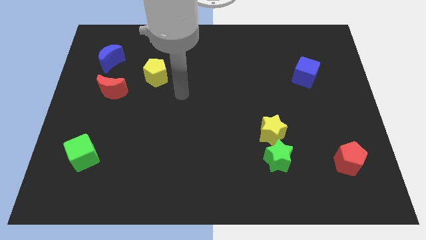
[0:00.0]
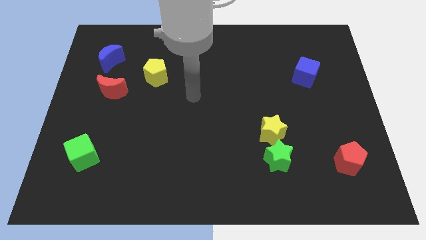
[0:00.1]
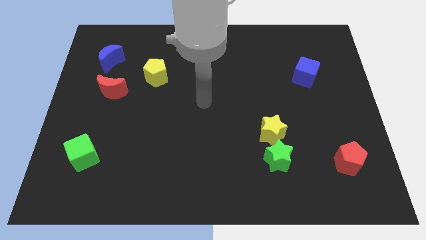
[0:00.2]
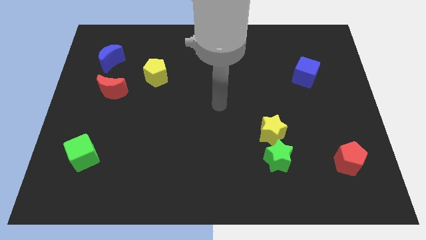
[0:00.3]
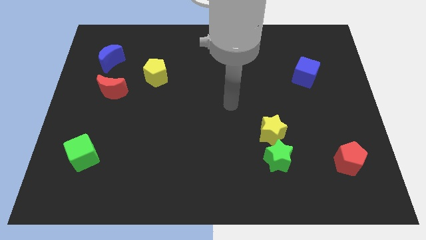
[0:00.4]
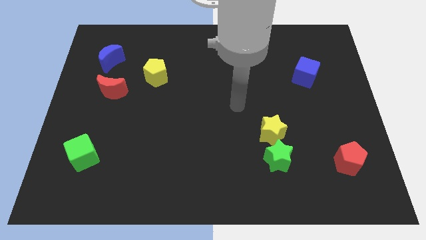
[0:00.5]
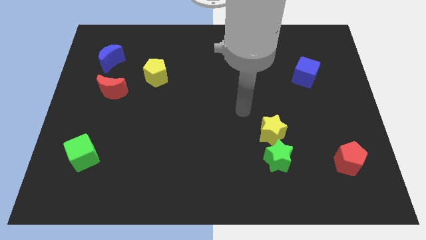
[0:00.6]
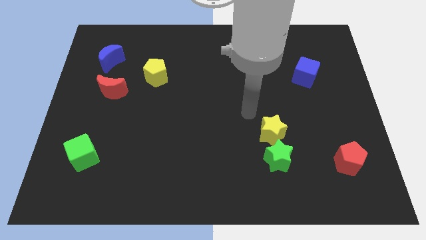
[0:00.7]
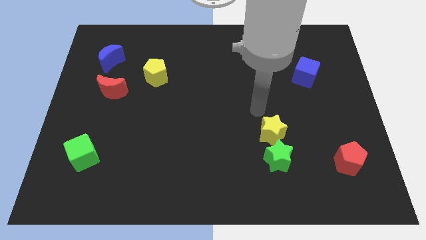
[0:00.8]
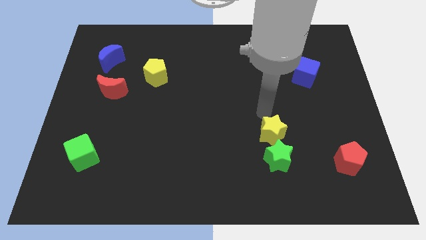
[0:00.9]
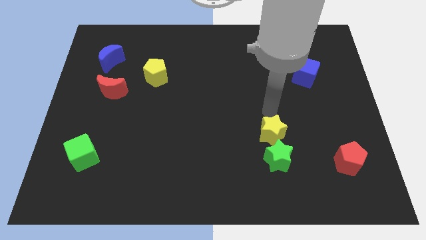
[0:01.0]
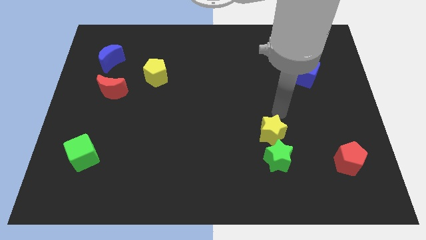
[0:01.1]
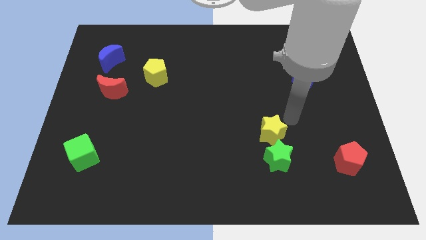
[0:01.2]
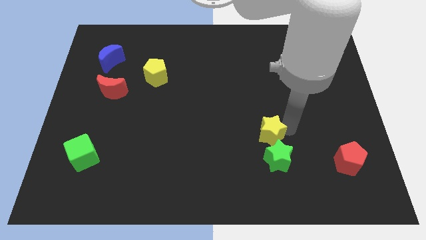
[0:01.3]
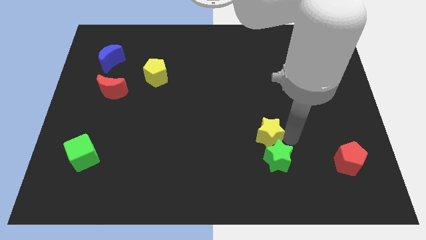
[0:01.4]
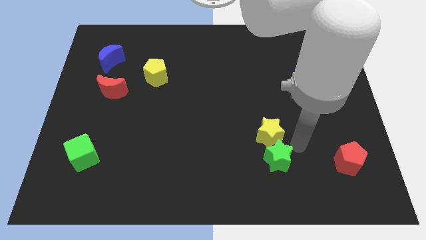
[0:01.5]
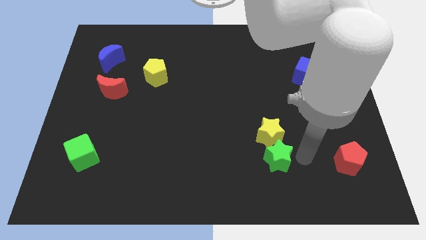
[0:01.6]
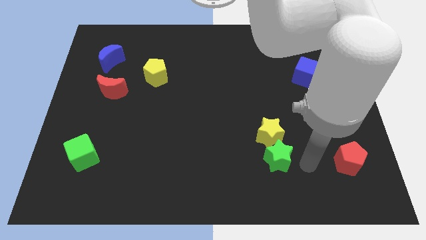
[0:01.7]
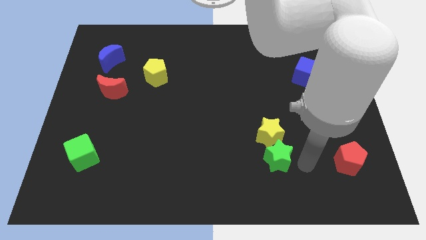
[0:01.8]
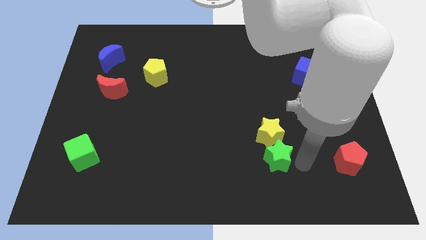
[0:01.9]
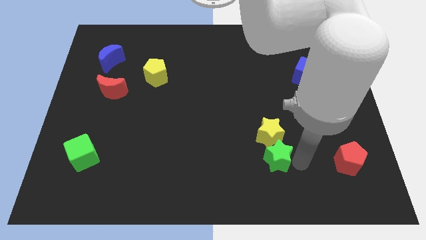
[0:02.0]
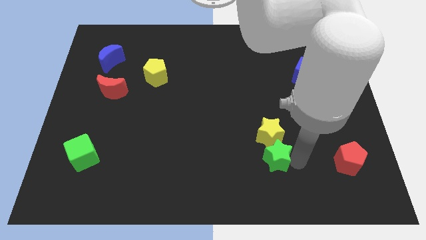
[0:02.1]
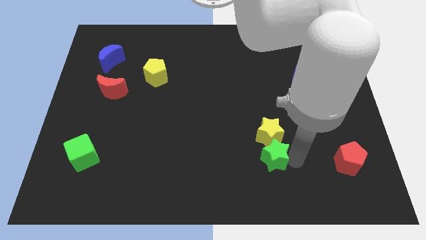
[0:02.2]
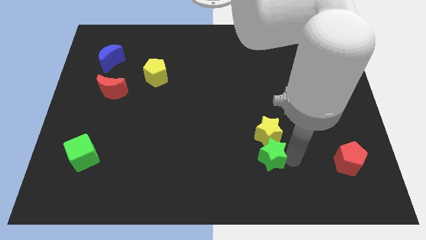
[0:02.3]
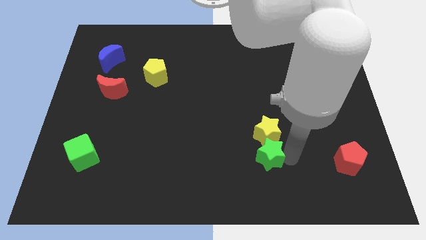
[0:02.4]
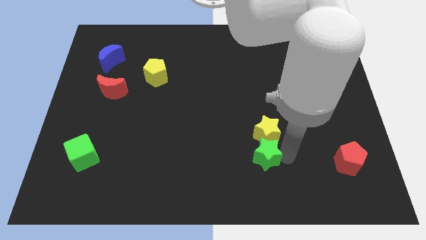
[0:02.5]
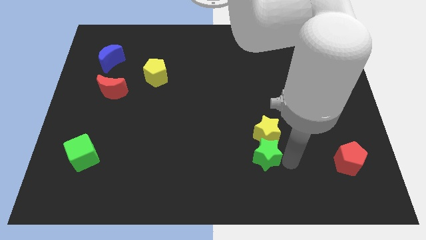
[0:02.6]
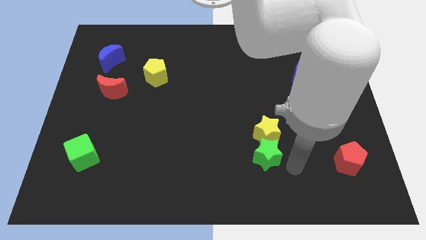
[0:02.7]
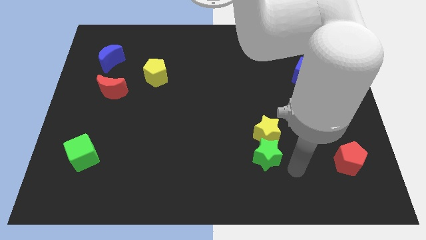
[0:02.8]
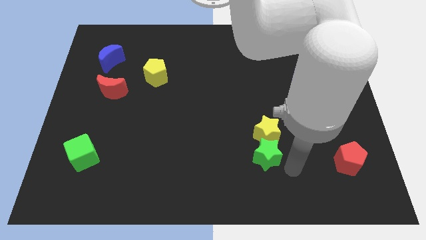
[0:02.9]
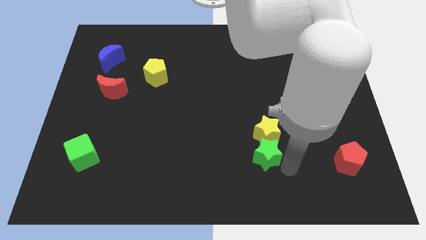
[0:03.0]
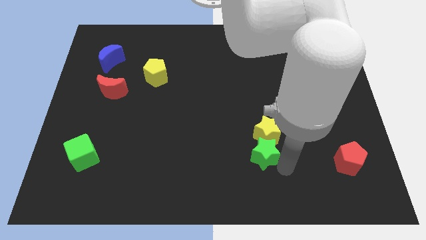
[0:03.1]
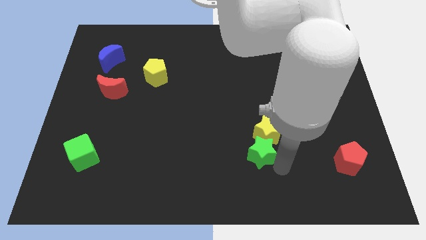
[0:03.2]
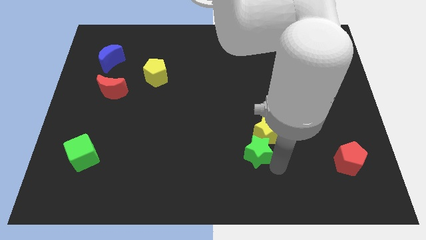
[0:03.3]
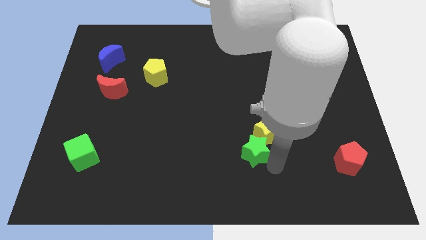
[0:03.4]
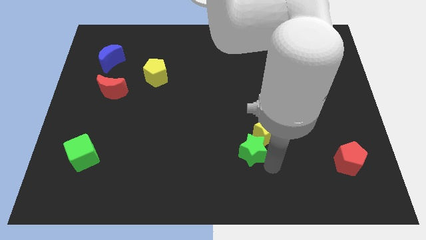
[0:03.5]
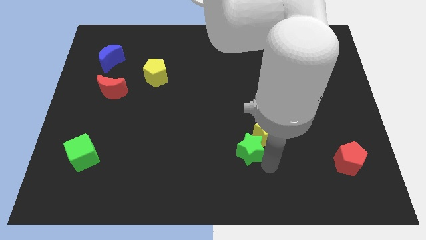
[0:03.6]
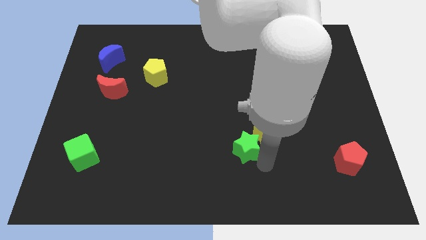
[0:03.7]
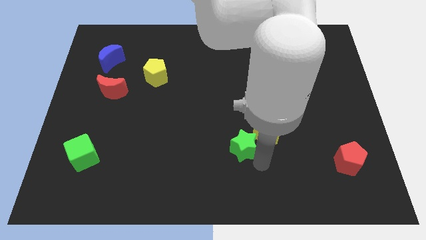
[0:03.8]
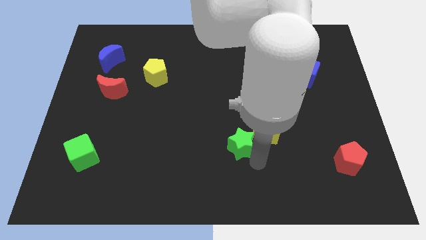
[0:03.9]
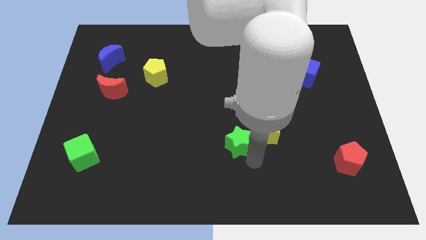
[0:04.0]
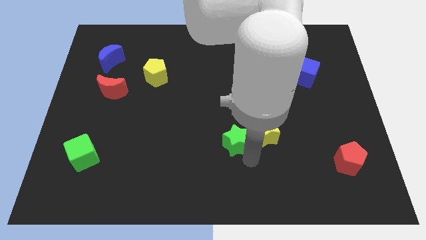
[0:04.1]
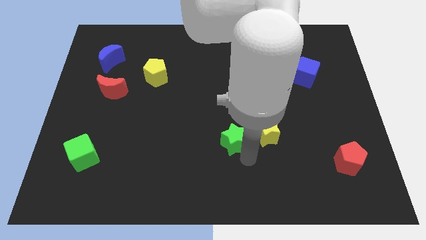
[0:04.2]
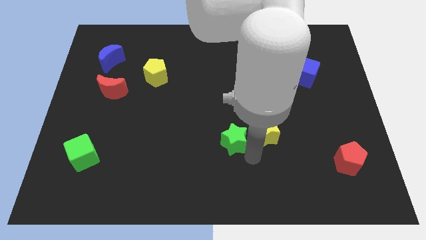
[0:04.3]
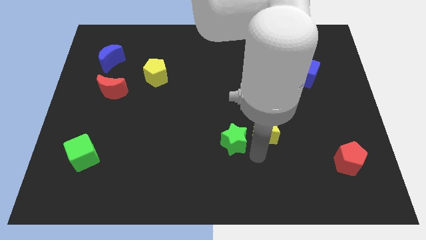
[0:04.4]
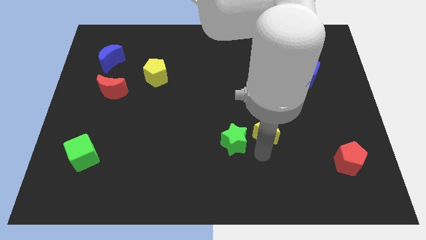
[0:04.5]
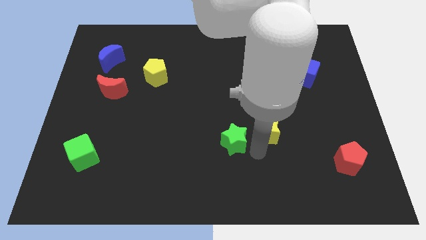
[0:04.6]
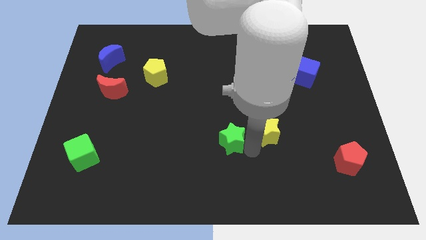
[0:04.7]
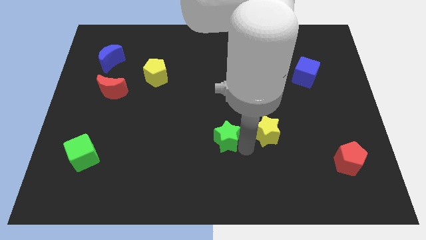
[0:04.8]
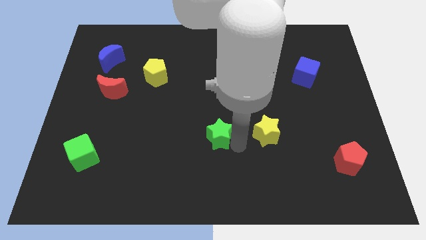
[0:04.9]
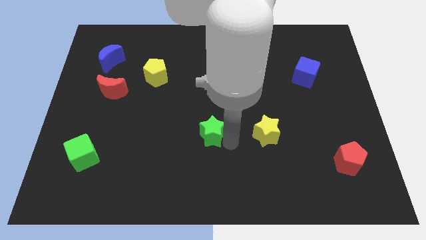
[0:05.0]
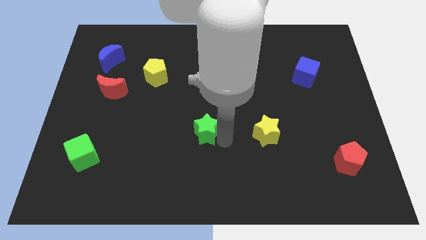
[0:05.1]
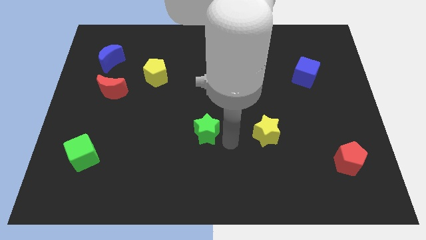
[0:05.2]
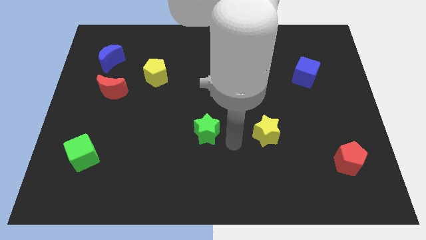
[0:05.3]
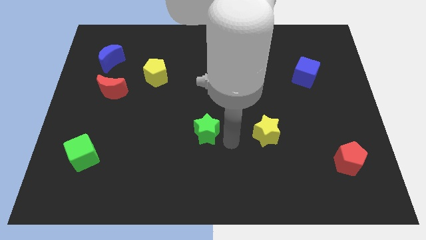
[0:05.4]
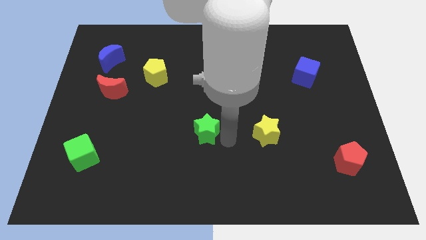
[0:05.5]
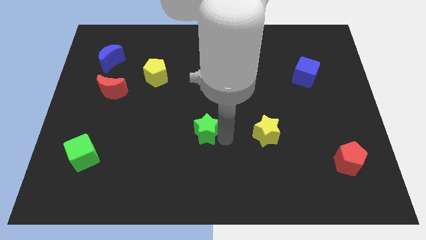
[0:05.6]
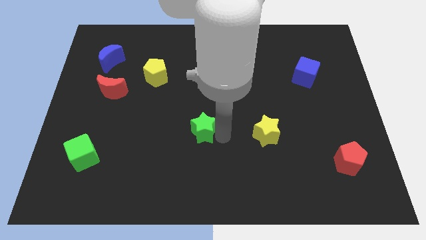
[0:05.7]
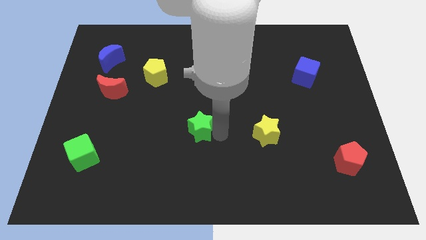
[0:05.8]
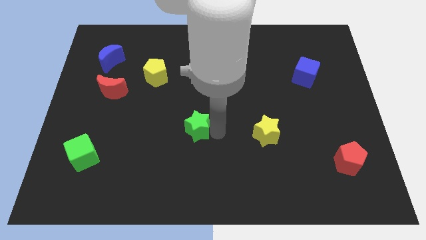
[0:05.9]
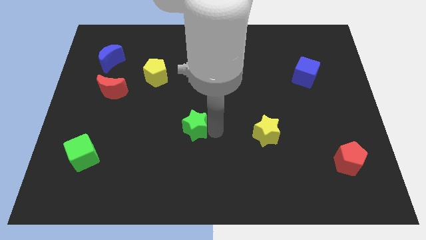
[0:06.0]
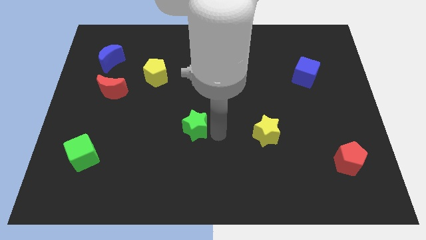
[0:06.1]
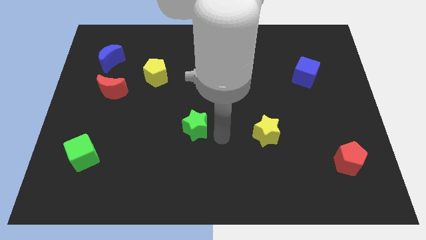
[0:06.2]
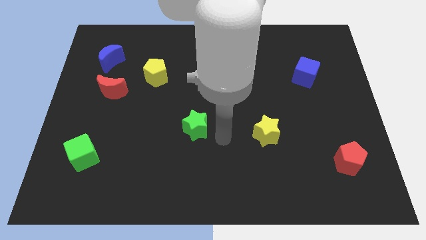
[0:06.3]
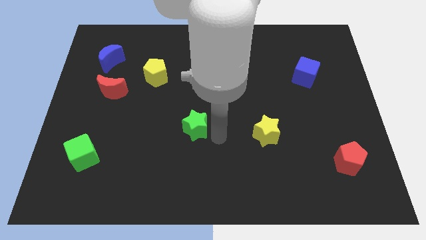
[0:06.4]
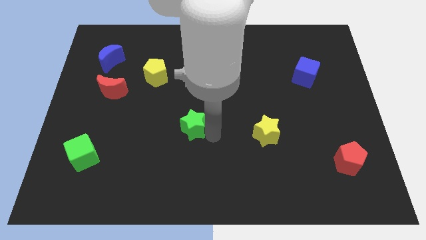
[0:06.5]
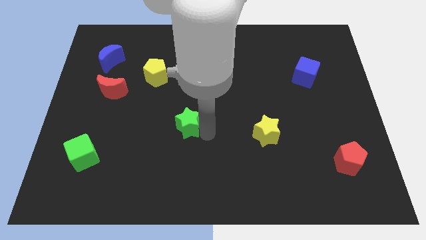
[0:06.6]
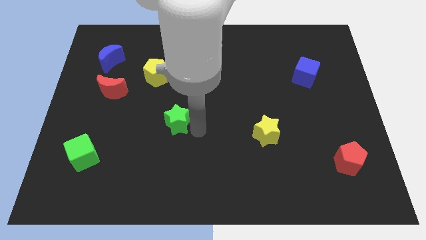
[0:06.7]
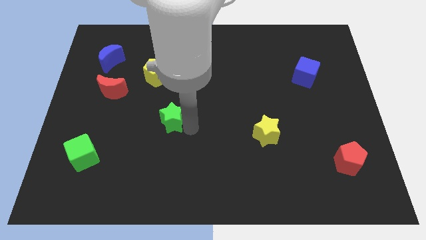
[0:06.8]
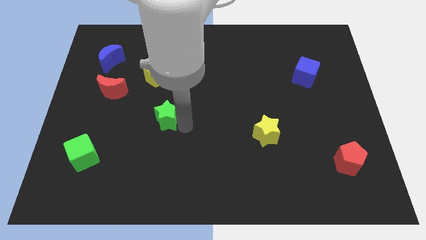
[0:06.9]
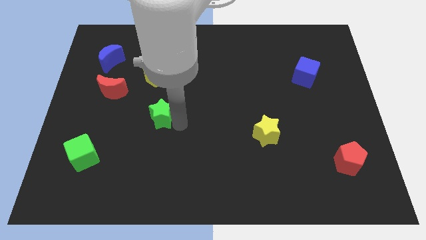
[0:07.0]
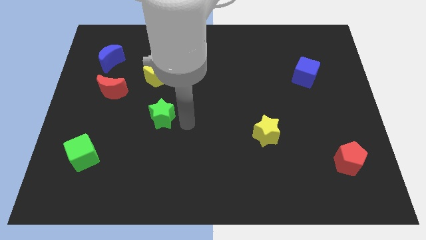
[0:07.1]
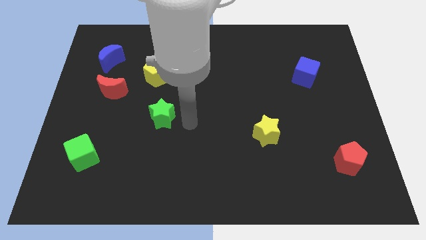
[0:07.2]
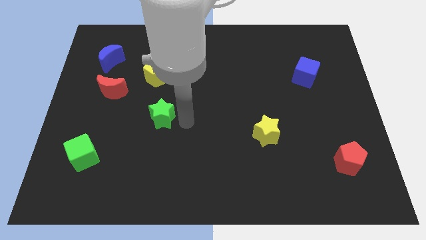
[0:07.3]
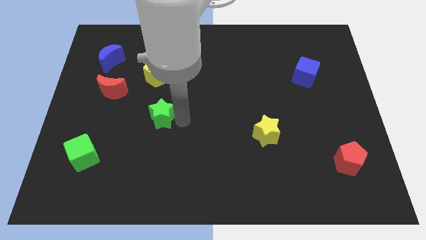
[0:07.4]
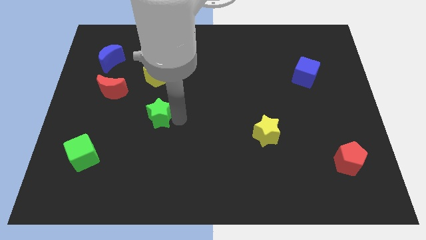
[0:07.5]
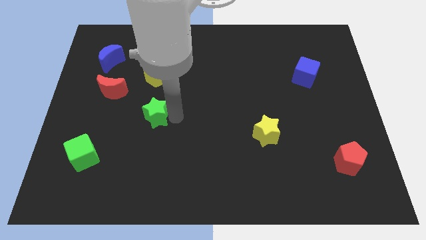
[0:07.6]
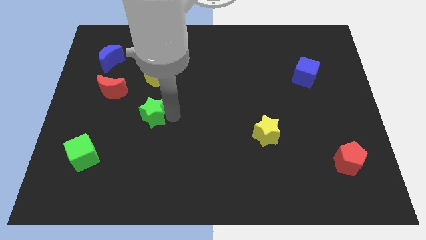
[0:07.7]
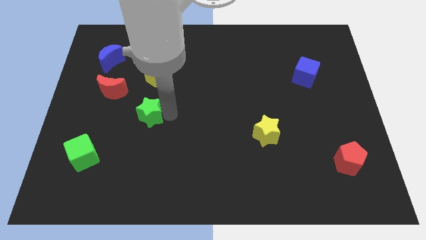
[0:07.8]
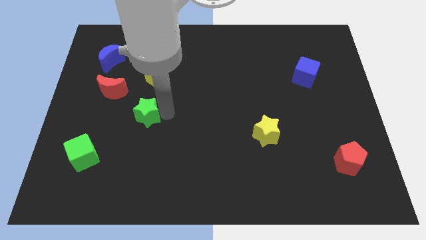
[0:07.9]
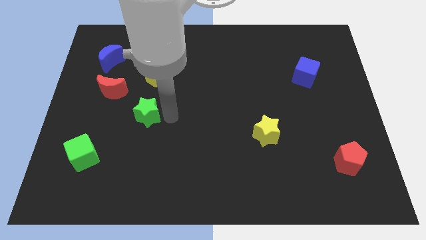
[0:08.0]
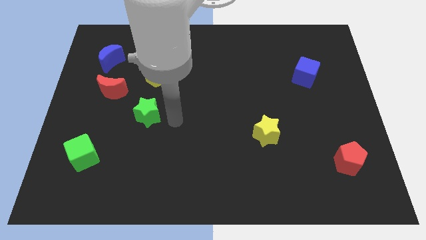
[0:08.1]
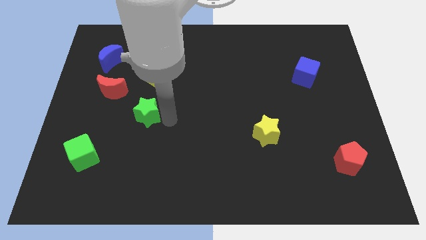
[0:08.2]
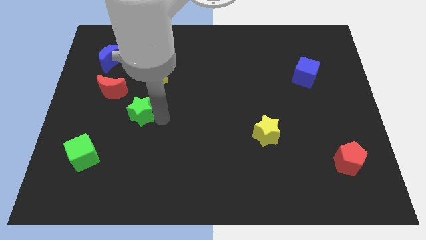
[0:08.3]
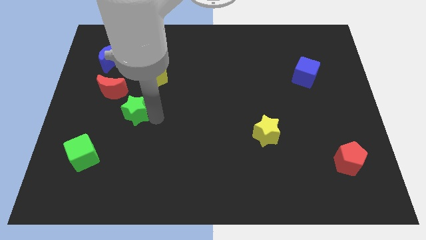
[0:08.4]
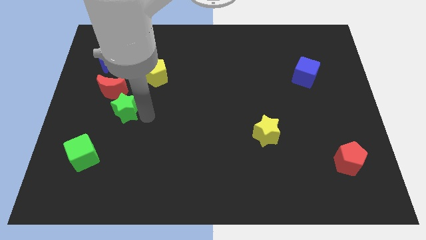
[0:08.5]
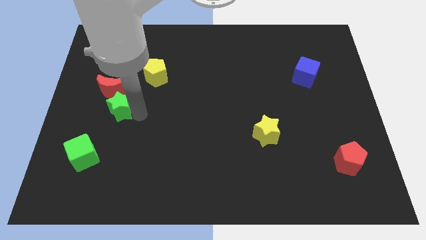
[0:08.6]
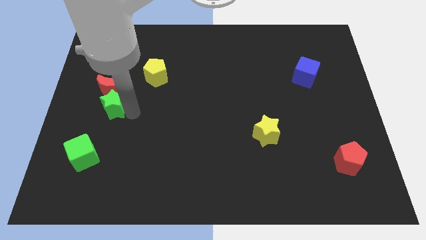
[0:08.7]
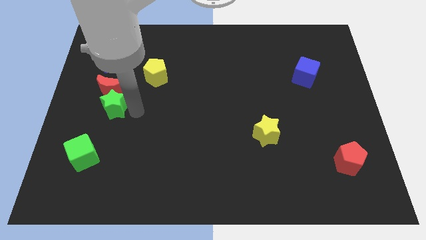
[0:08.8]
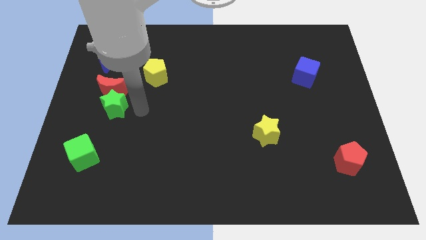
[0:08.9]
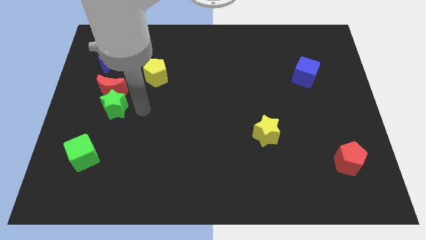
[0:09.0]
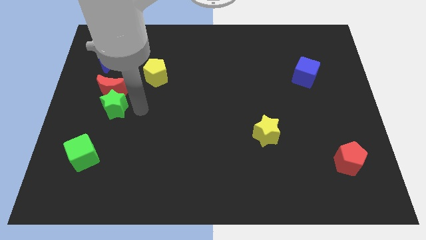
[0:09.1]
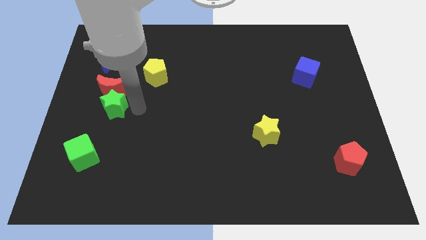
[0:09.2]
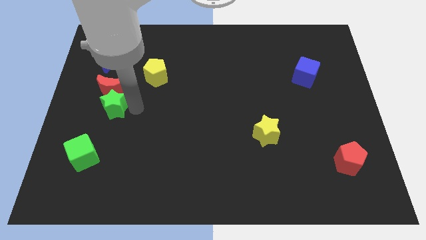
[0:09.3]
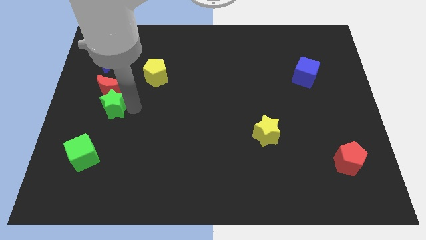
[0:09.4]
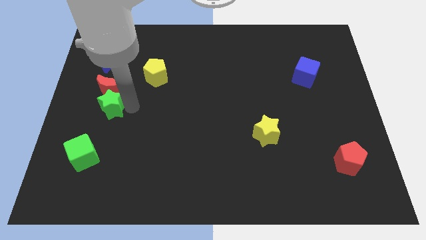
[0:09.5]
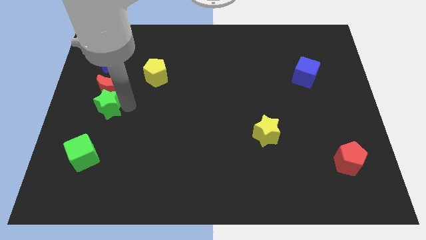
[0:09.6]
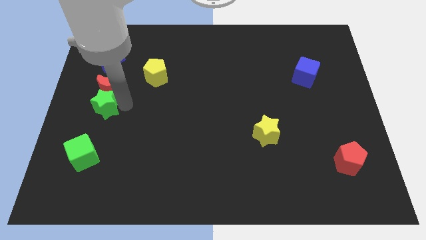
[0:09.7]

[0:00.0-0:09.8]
slide the green star to the center left
